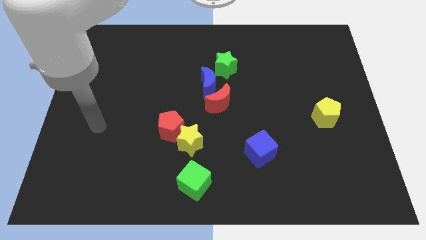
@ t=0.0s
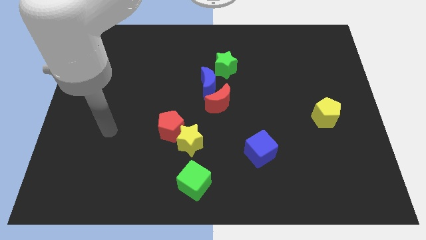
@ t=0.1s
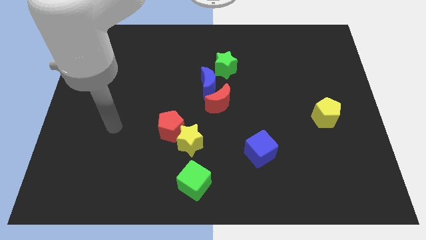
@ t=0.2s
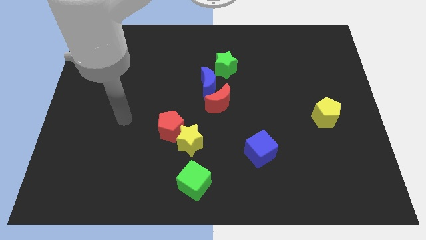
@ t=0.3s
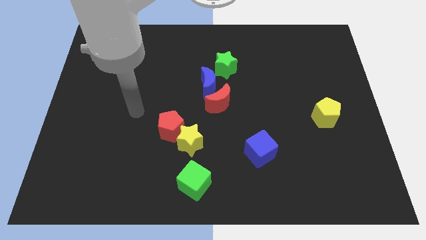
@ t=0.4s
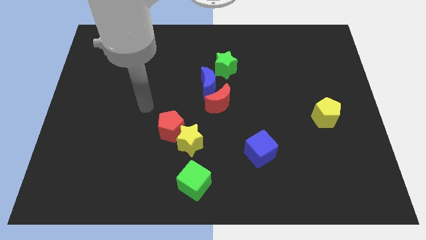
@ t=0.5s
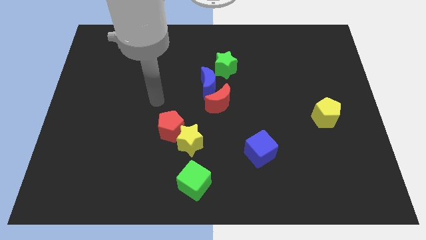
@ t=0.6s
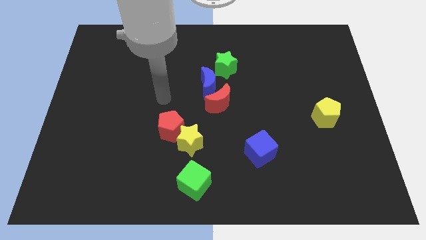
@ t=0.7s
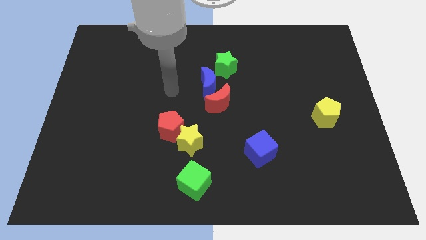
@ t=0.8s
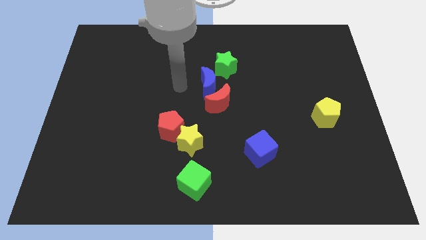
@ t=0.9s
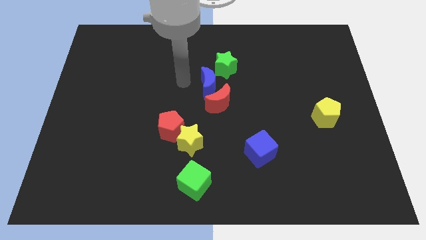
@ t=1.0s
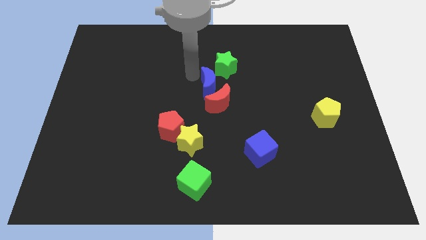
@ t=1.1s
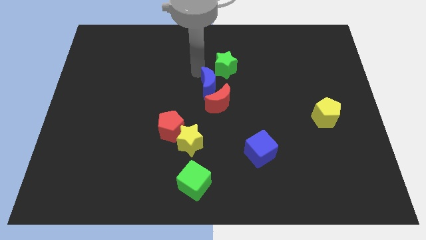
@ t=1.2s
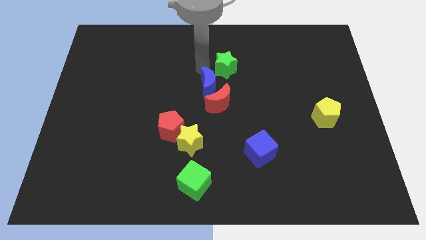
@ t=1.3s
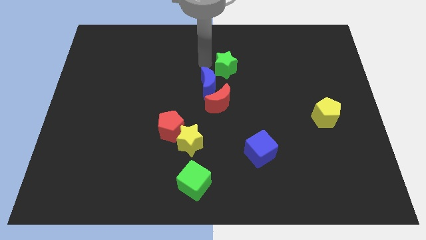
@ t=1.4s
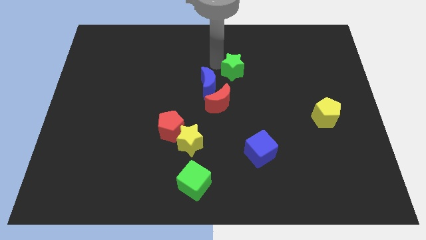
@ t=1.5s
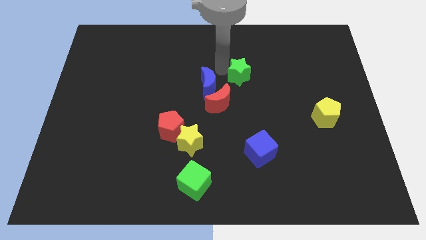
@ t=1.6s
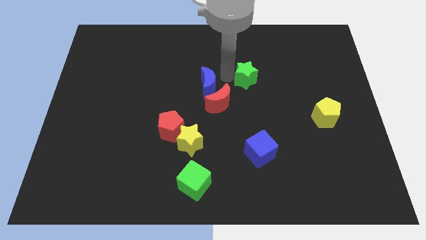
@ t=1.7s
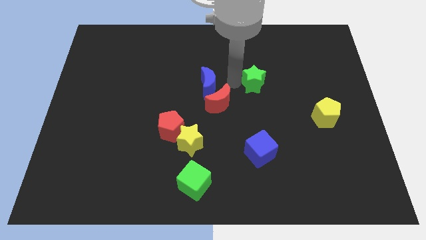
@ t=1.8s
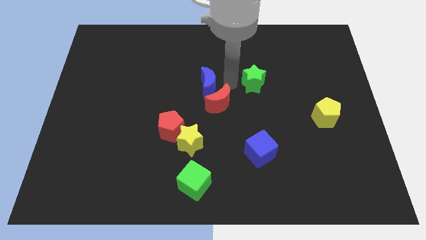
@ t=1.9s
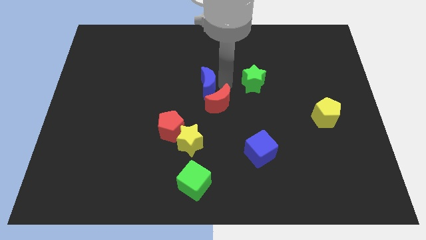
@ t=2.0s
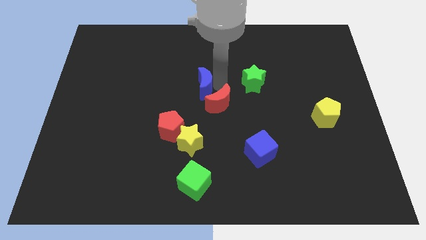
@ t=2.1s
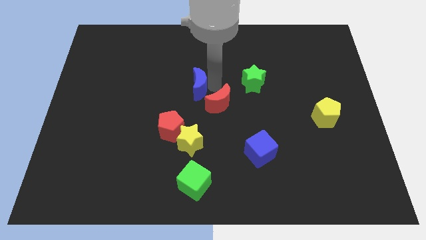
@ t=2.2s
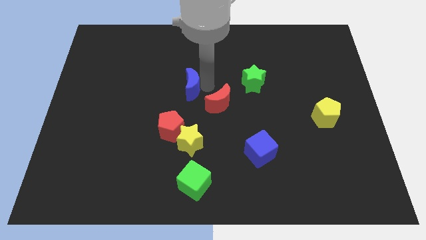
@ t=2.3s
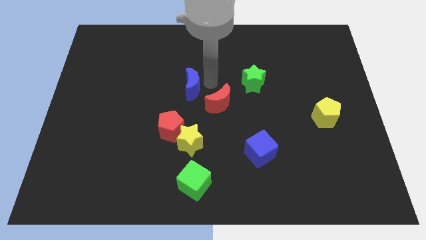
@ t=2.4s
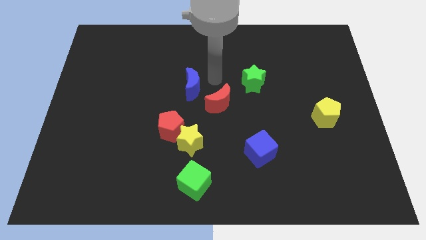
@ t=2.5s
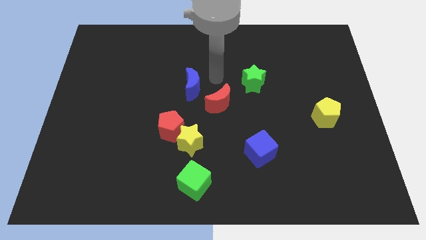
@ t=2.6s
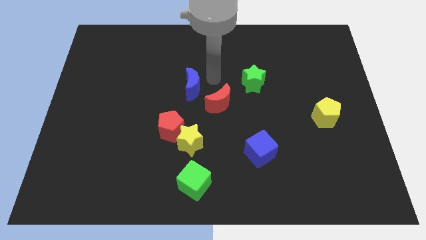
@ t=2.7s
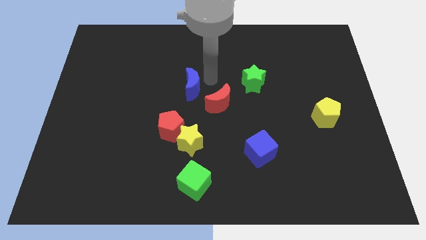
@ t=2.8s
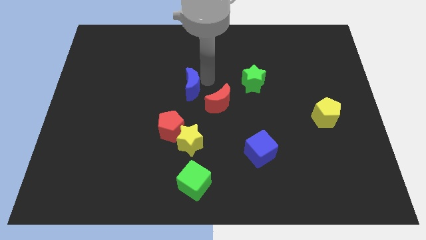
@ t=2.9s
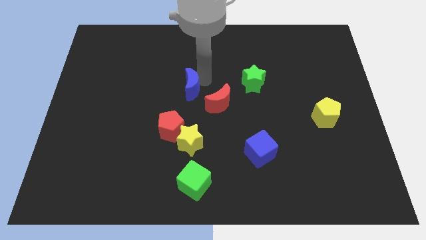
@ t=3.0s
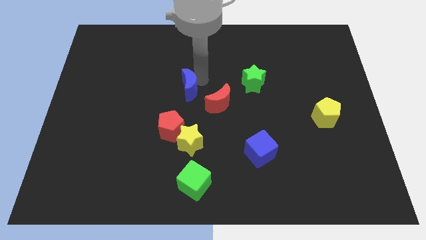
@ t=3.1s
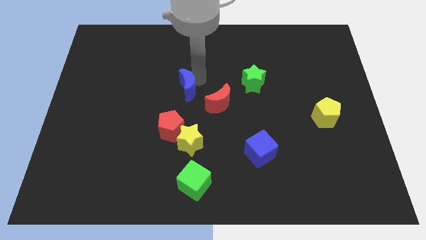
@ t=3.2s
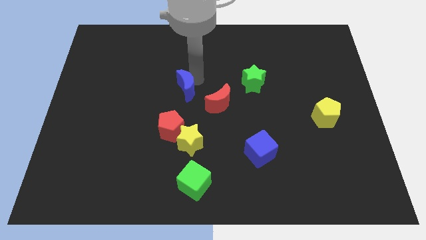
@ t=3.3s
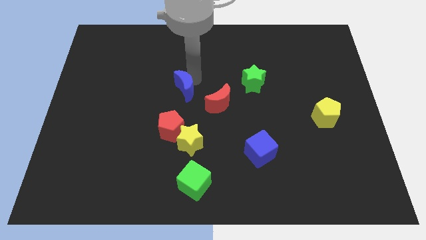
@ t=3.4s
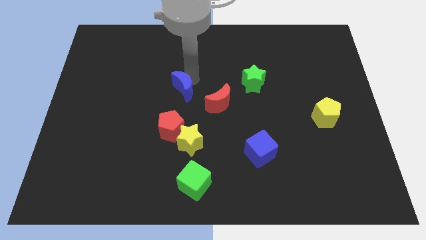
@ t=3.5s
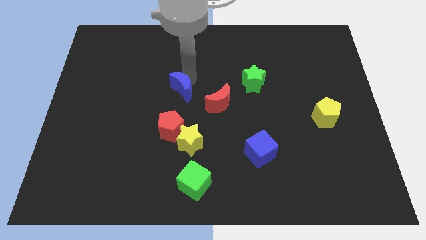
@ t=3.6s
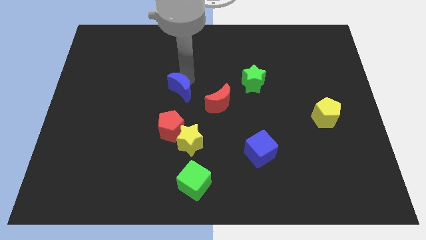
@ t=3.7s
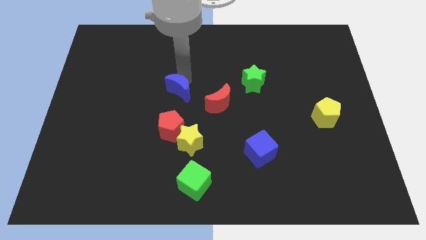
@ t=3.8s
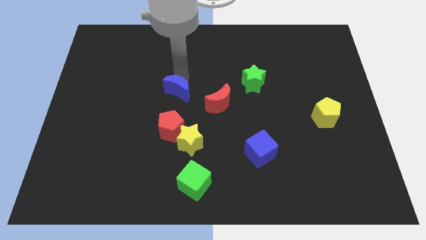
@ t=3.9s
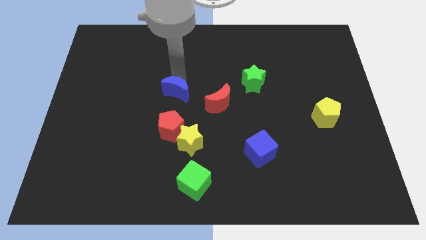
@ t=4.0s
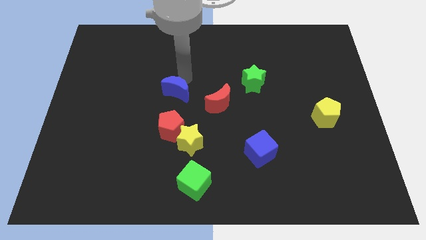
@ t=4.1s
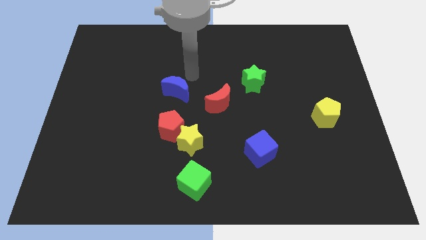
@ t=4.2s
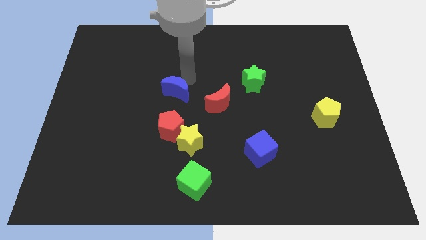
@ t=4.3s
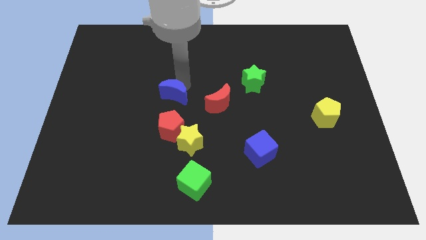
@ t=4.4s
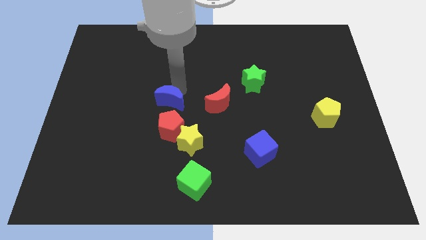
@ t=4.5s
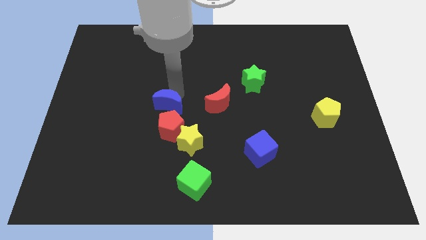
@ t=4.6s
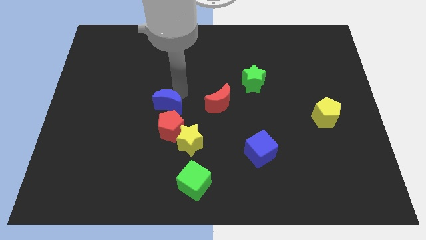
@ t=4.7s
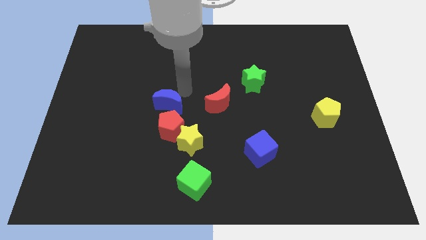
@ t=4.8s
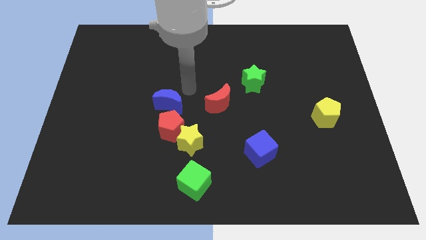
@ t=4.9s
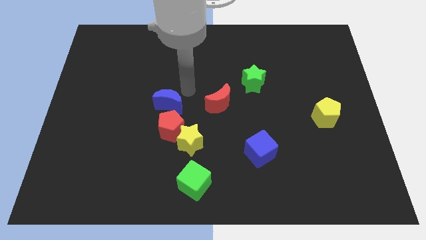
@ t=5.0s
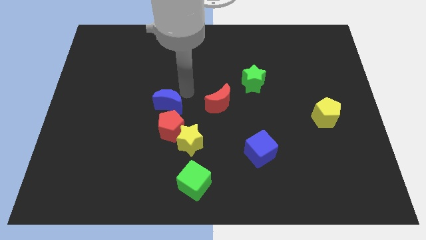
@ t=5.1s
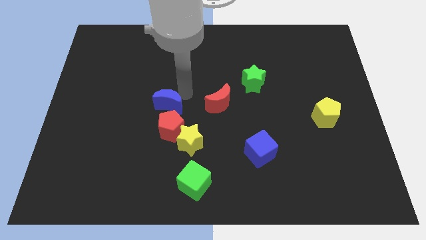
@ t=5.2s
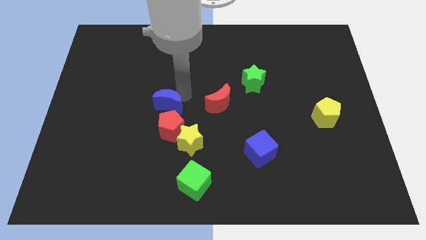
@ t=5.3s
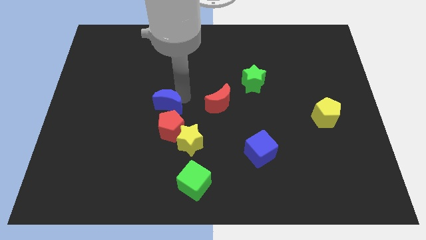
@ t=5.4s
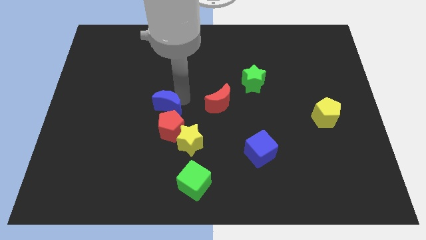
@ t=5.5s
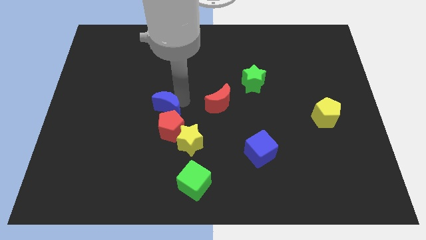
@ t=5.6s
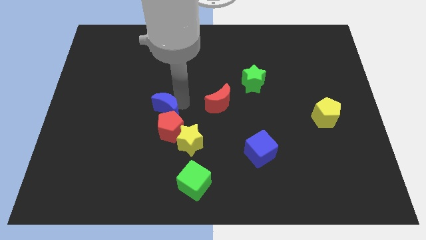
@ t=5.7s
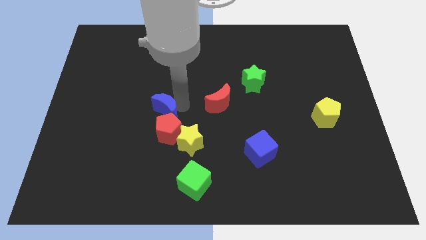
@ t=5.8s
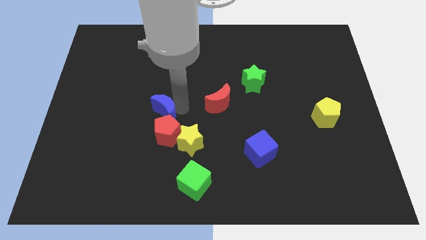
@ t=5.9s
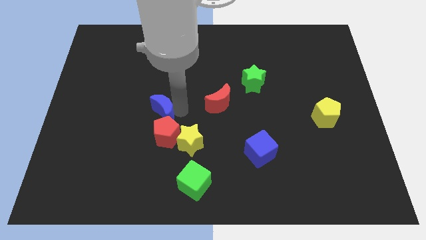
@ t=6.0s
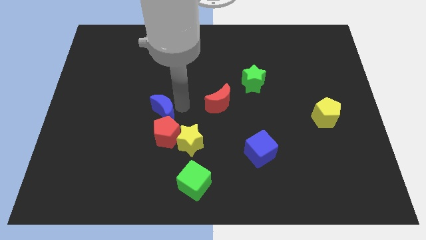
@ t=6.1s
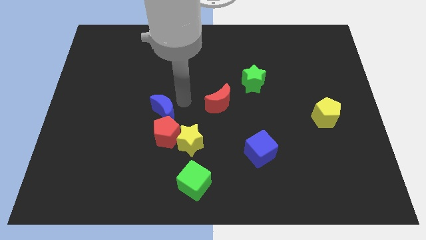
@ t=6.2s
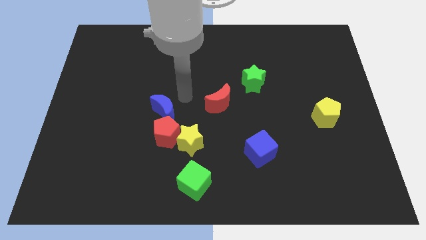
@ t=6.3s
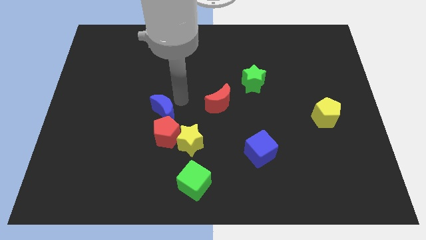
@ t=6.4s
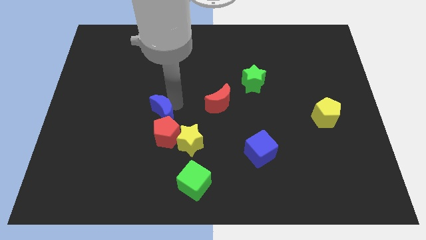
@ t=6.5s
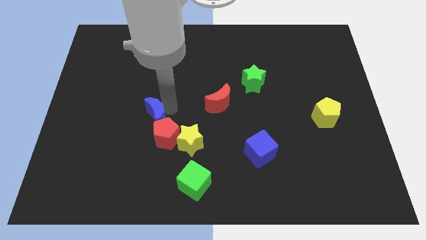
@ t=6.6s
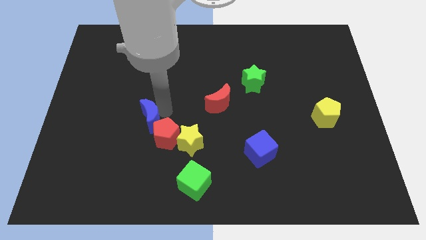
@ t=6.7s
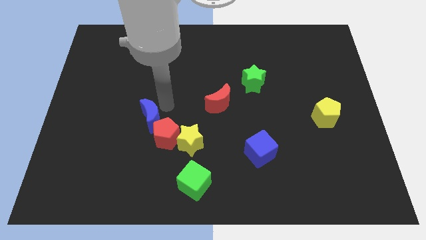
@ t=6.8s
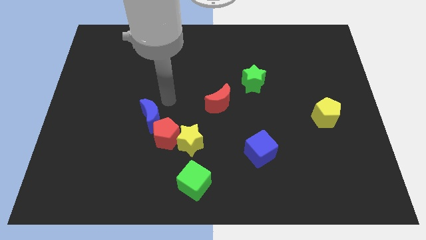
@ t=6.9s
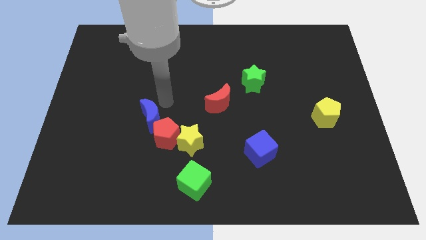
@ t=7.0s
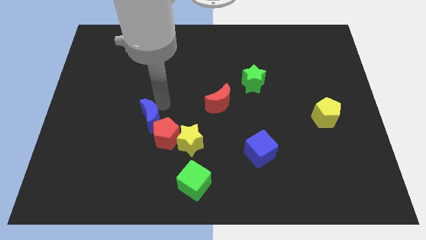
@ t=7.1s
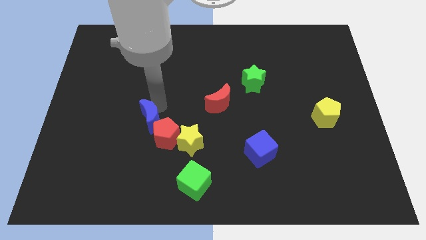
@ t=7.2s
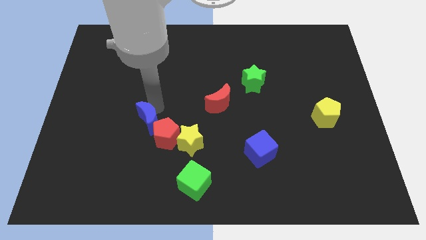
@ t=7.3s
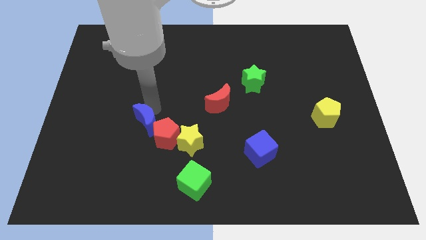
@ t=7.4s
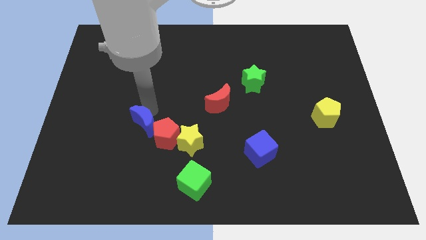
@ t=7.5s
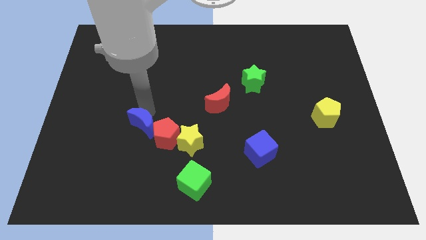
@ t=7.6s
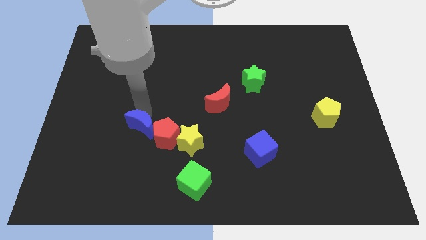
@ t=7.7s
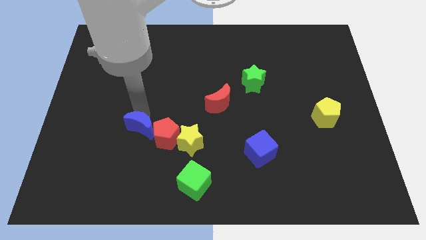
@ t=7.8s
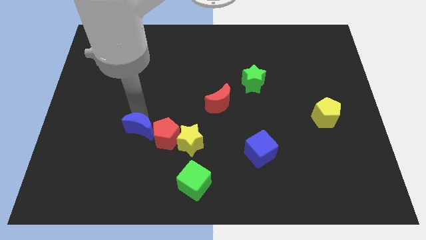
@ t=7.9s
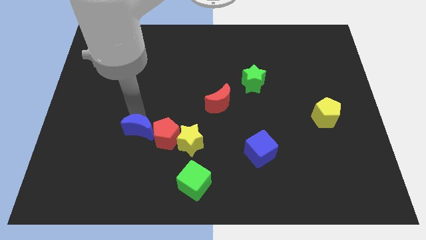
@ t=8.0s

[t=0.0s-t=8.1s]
push the blue moon down and then to the left
